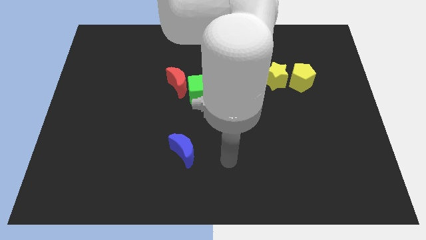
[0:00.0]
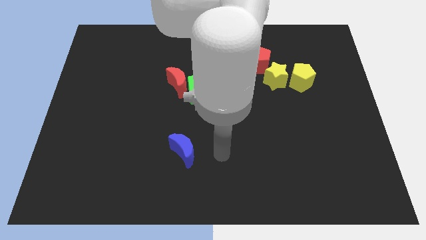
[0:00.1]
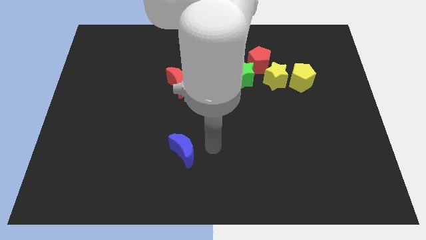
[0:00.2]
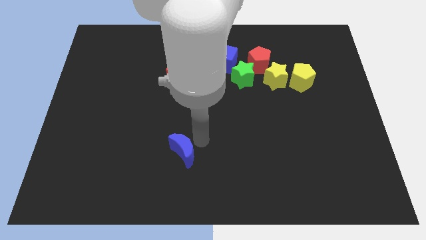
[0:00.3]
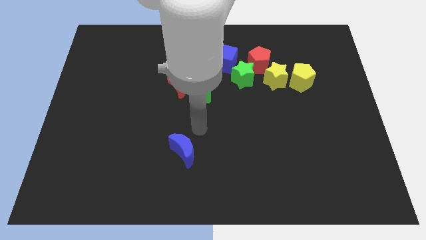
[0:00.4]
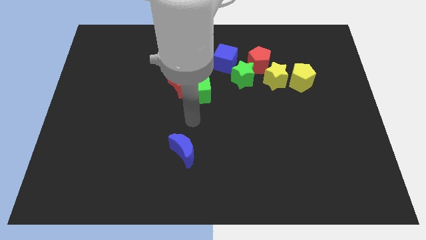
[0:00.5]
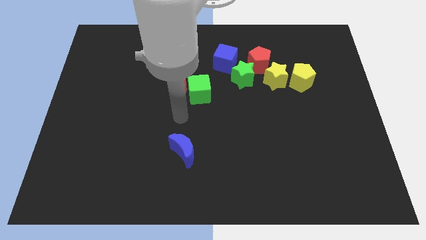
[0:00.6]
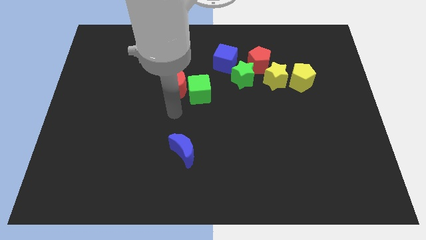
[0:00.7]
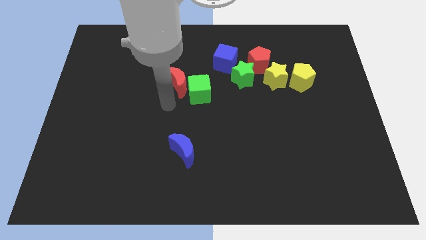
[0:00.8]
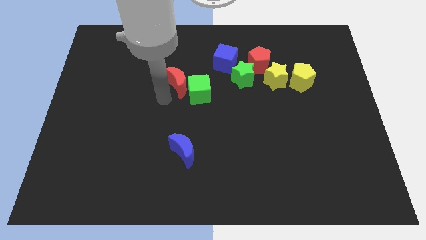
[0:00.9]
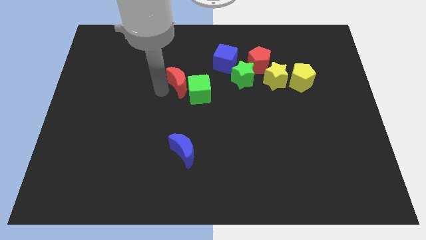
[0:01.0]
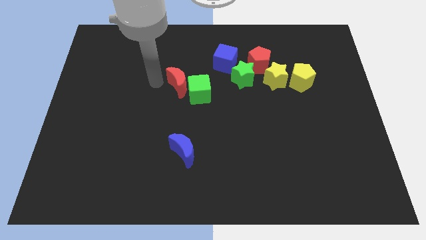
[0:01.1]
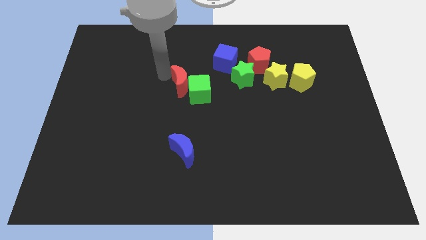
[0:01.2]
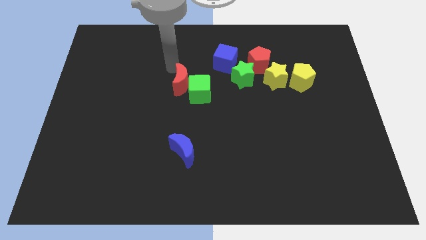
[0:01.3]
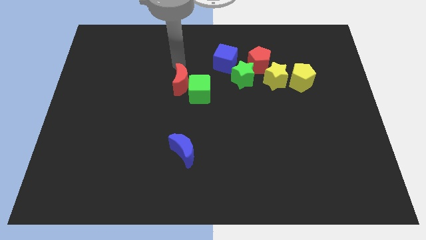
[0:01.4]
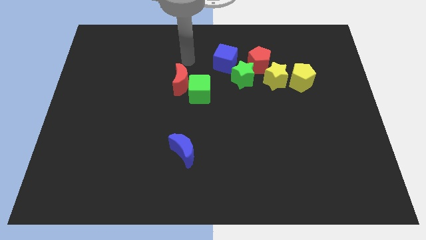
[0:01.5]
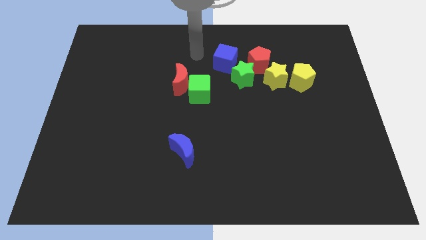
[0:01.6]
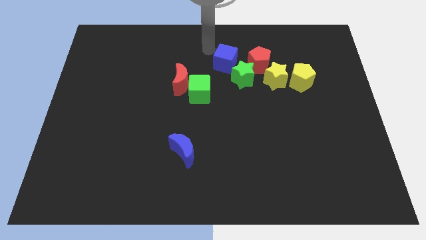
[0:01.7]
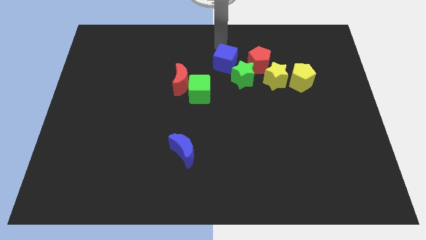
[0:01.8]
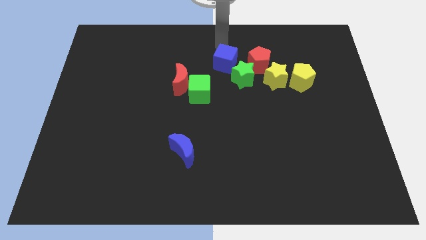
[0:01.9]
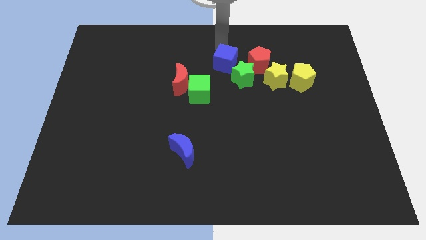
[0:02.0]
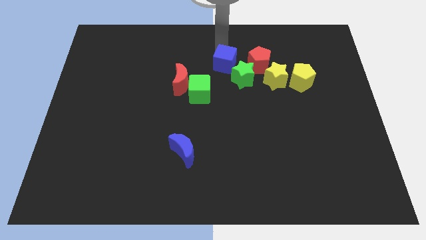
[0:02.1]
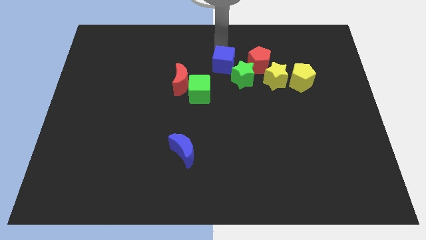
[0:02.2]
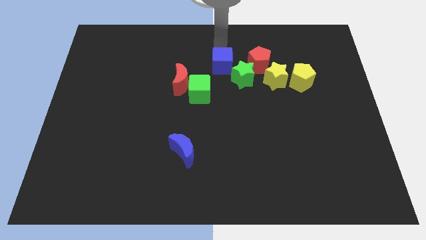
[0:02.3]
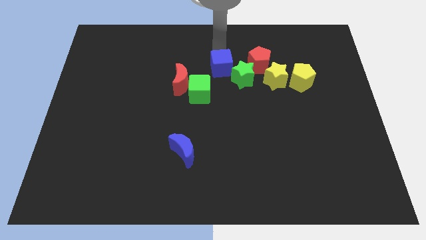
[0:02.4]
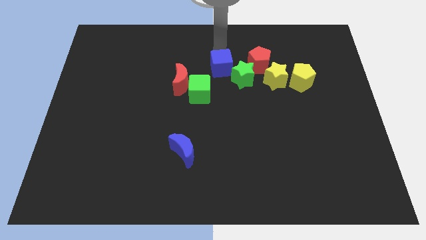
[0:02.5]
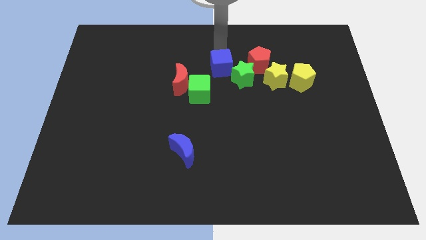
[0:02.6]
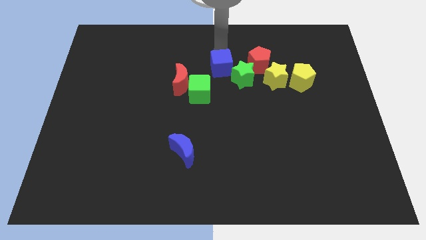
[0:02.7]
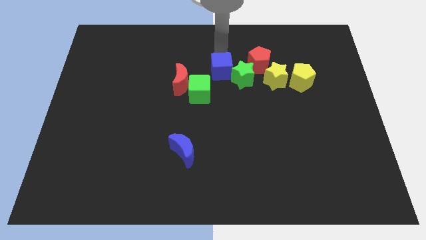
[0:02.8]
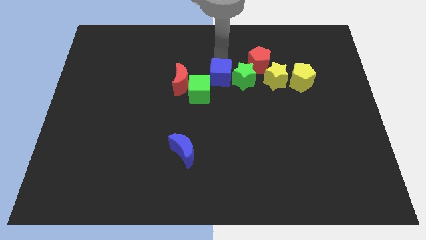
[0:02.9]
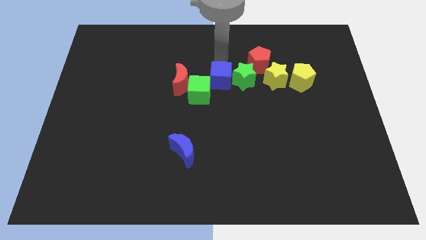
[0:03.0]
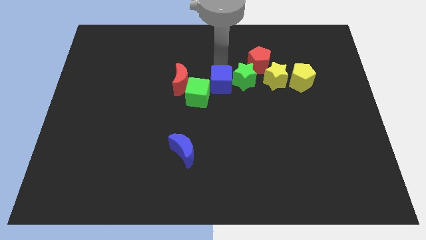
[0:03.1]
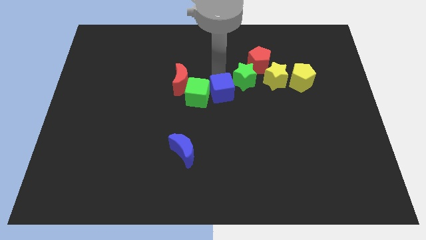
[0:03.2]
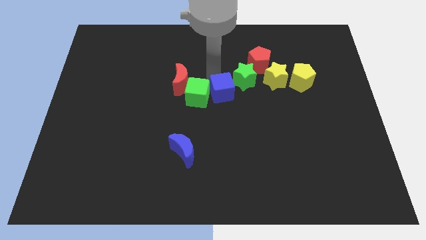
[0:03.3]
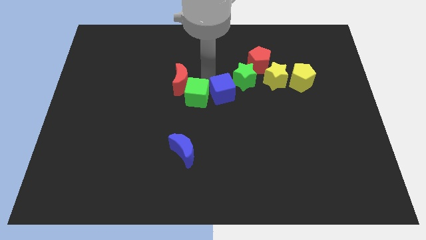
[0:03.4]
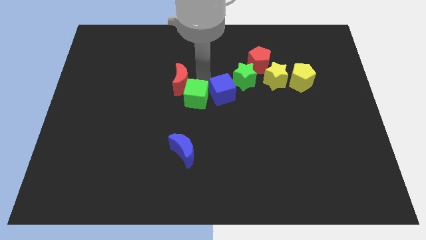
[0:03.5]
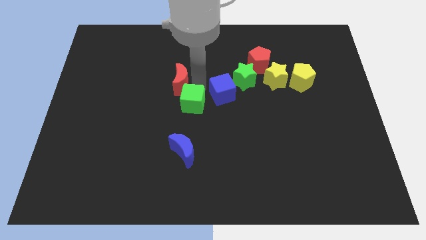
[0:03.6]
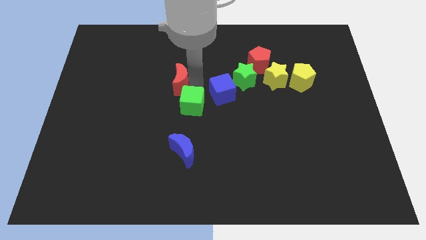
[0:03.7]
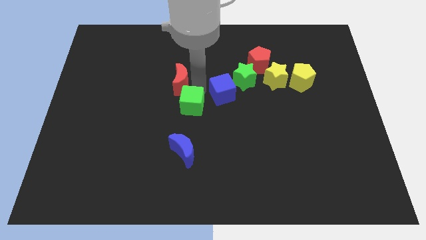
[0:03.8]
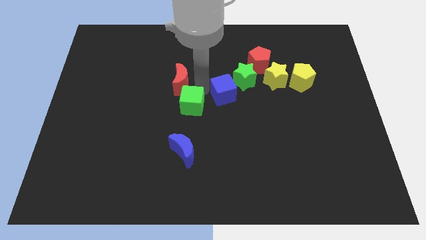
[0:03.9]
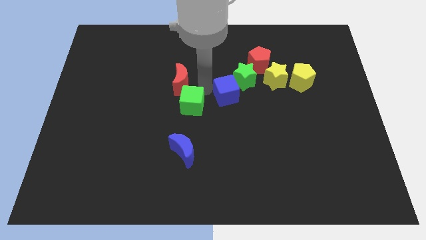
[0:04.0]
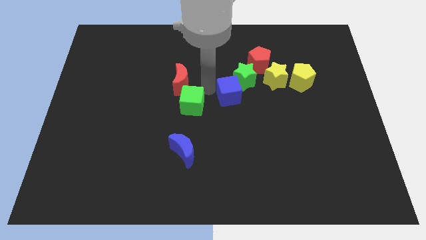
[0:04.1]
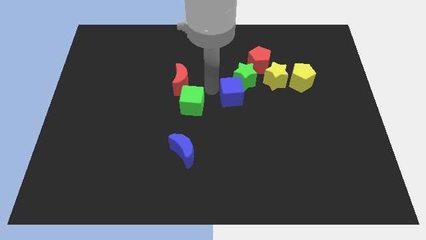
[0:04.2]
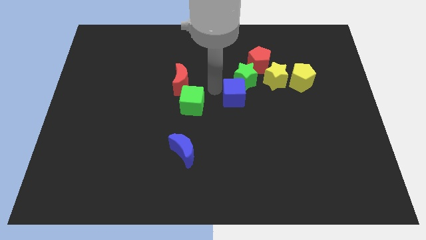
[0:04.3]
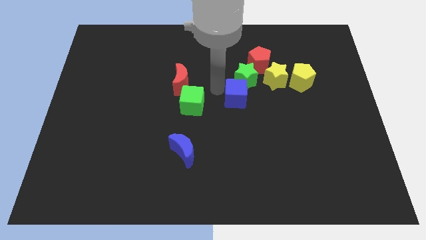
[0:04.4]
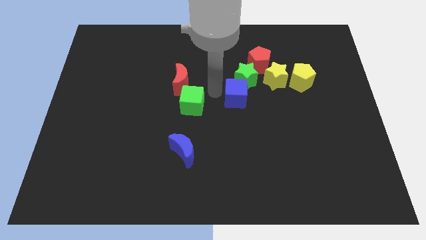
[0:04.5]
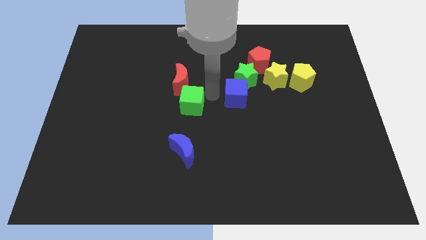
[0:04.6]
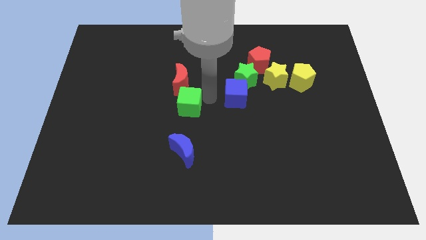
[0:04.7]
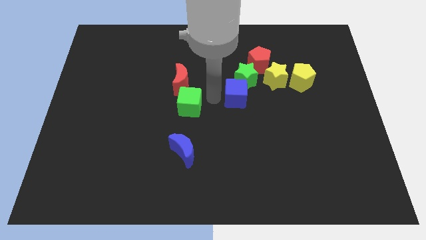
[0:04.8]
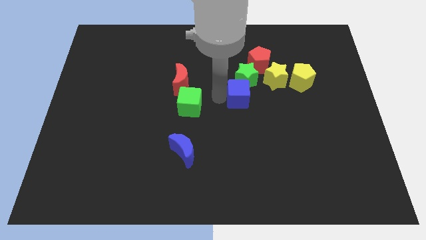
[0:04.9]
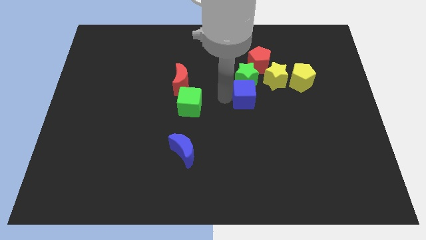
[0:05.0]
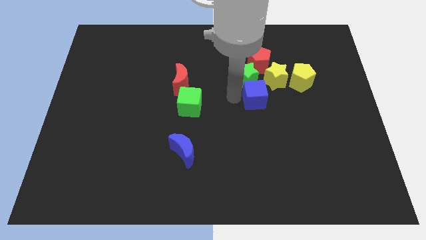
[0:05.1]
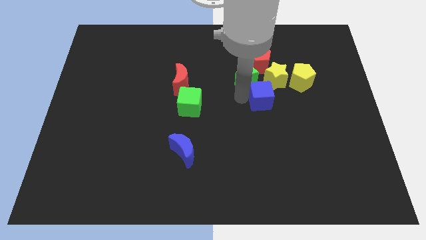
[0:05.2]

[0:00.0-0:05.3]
push the blue cube to the bottom left side of the yellow pentagon

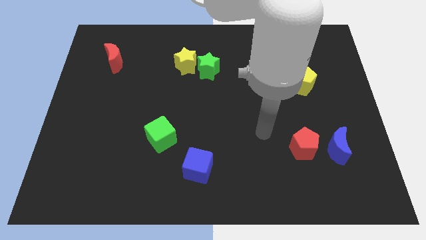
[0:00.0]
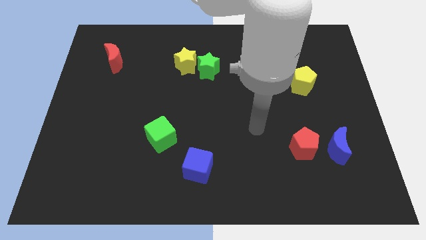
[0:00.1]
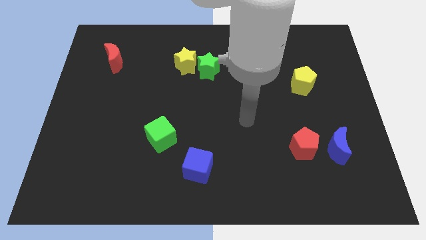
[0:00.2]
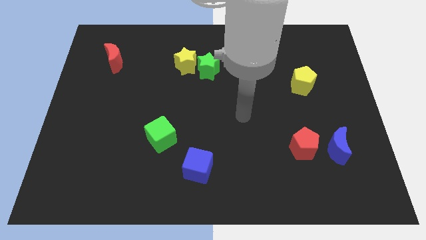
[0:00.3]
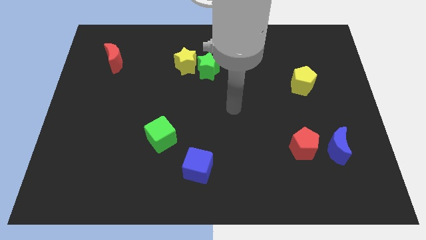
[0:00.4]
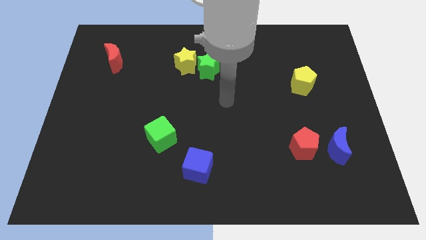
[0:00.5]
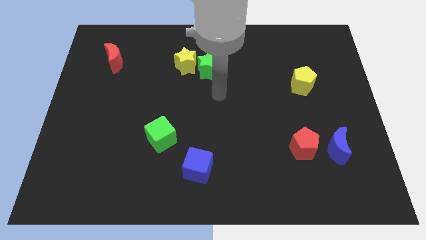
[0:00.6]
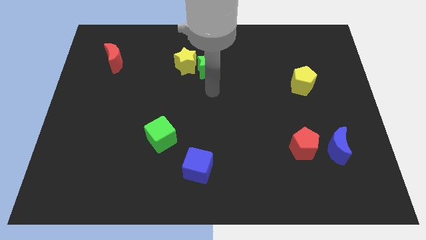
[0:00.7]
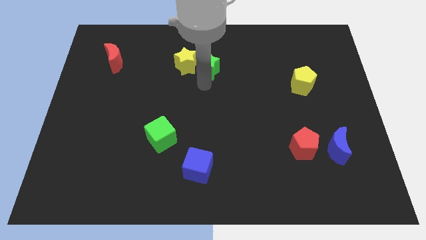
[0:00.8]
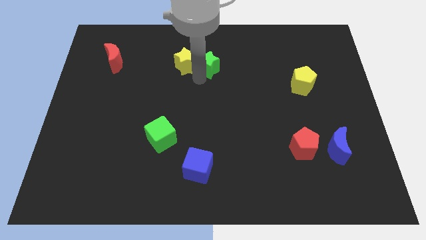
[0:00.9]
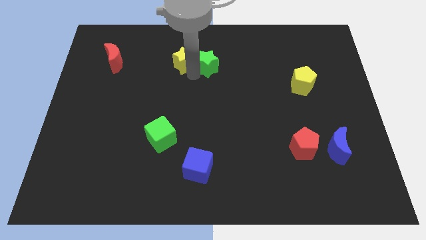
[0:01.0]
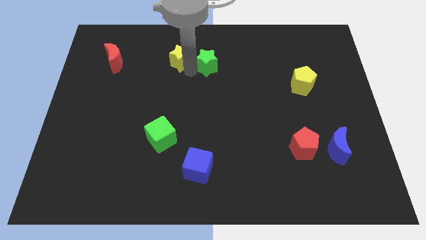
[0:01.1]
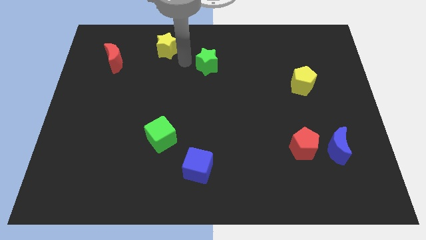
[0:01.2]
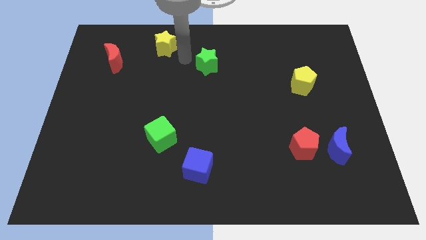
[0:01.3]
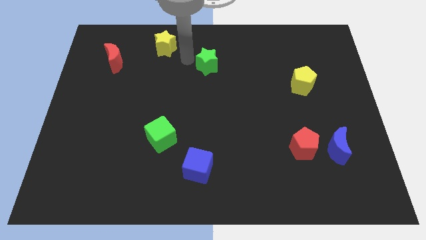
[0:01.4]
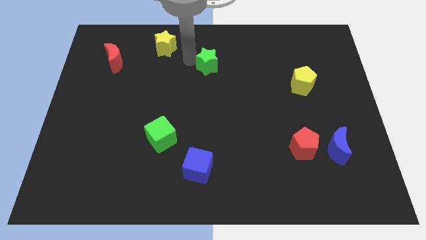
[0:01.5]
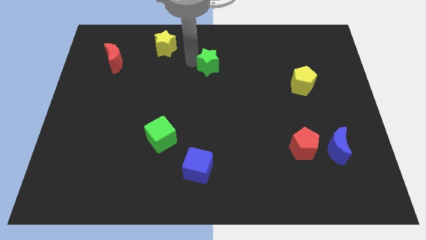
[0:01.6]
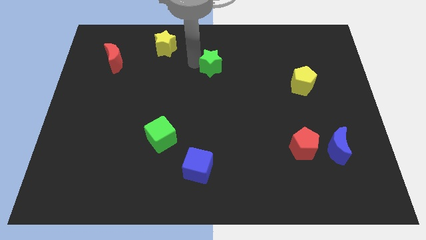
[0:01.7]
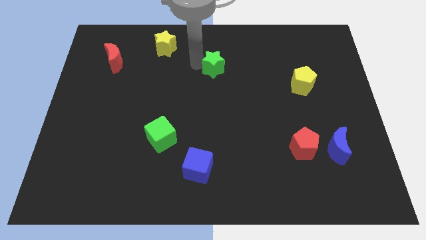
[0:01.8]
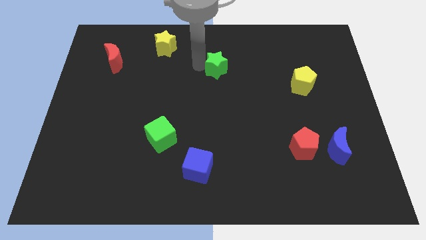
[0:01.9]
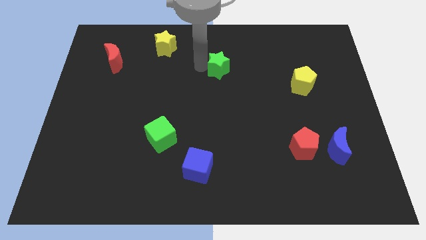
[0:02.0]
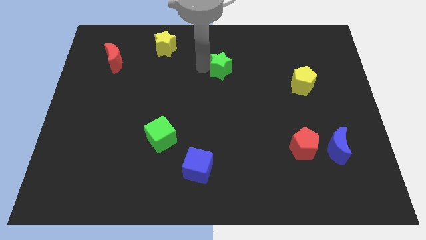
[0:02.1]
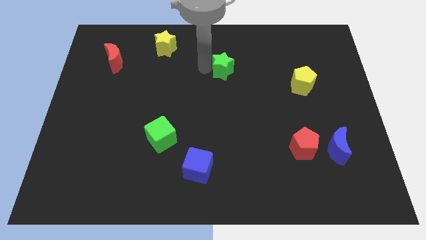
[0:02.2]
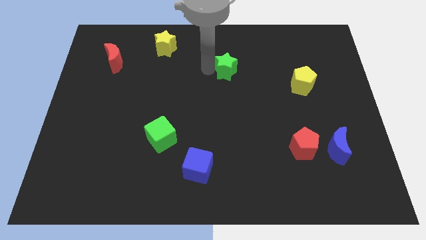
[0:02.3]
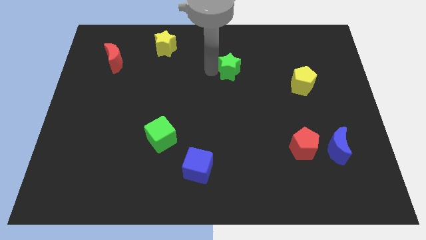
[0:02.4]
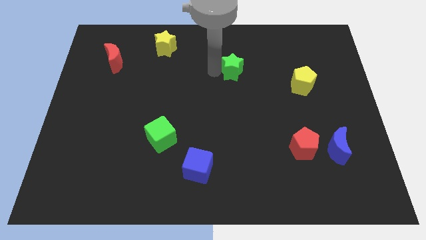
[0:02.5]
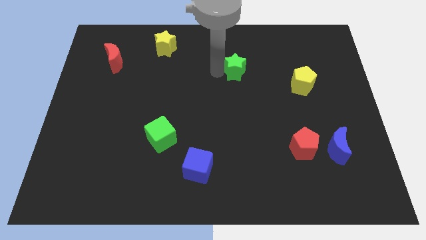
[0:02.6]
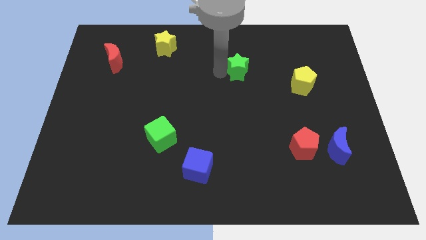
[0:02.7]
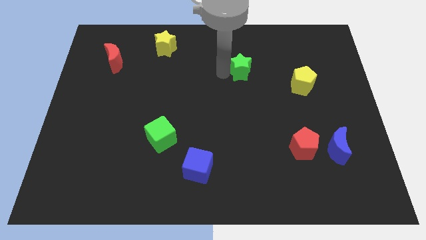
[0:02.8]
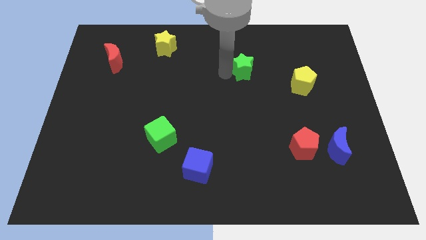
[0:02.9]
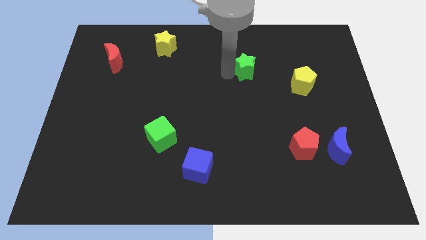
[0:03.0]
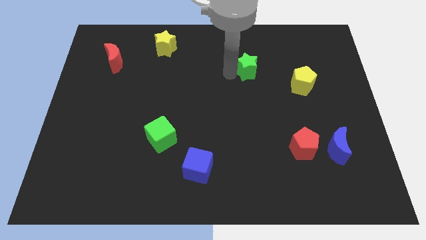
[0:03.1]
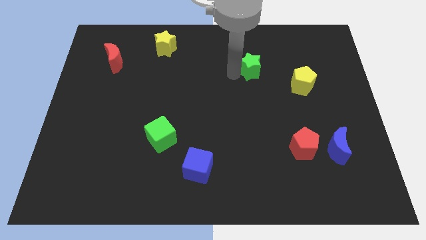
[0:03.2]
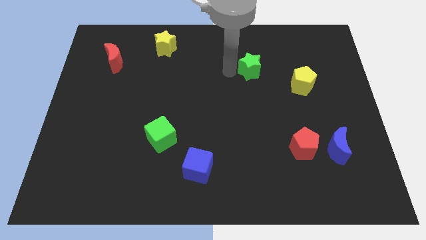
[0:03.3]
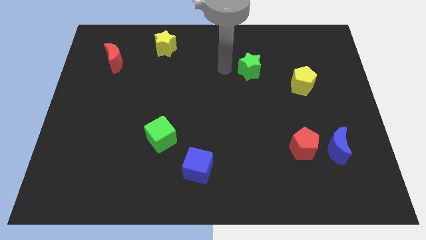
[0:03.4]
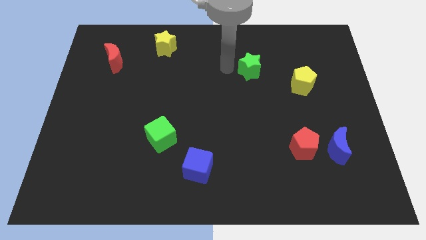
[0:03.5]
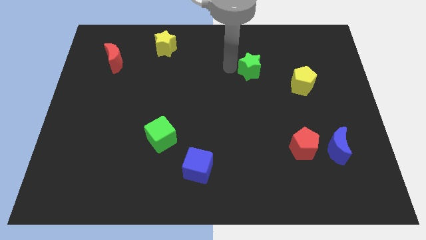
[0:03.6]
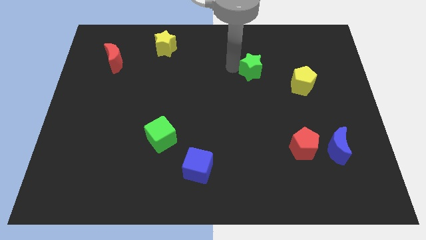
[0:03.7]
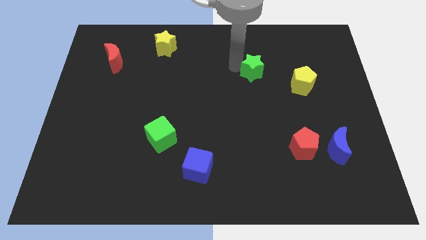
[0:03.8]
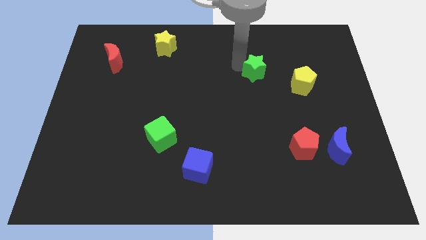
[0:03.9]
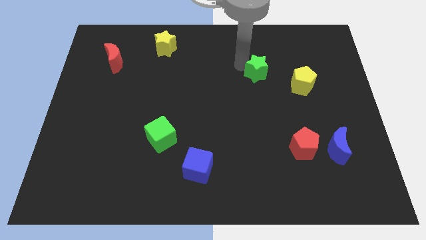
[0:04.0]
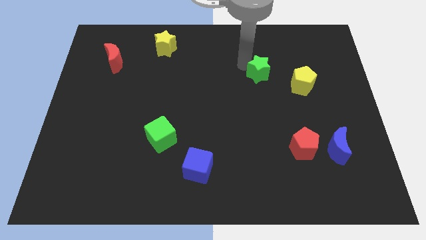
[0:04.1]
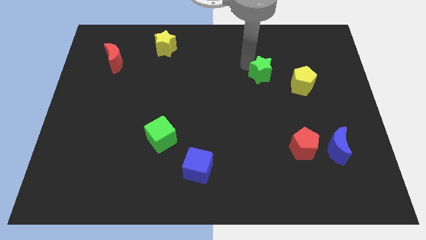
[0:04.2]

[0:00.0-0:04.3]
push the green star to the top left of the yellow pentagon
